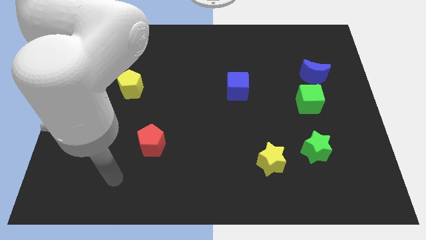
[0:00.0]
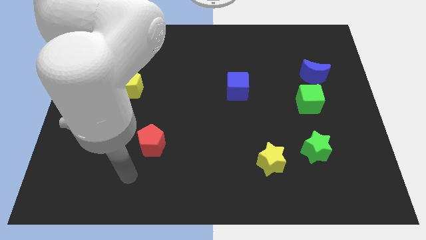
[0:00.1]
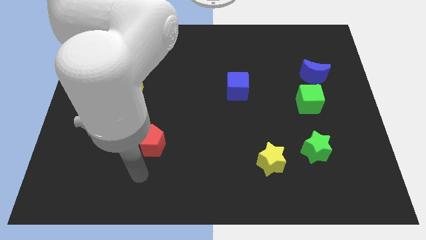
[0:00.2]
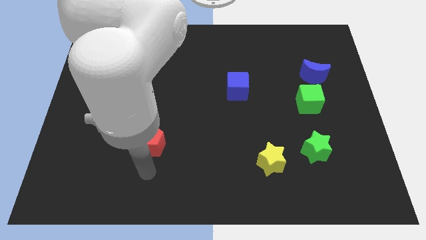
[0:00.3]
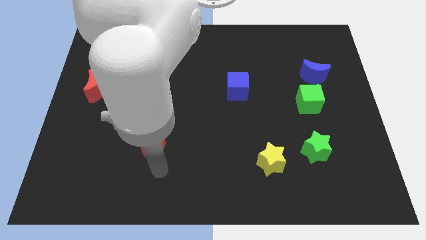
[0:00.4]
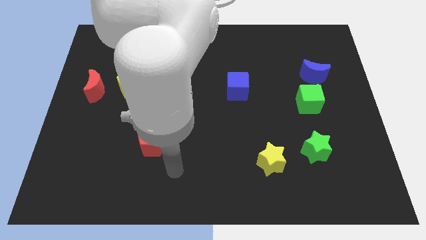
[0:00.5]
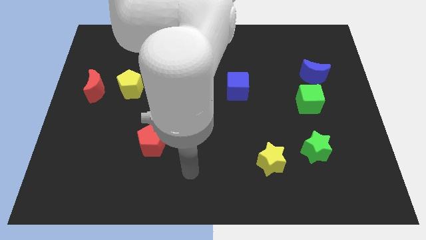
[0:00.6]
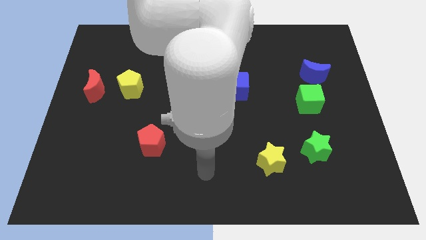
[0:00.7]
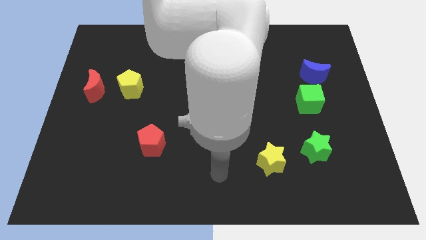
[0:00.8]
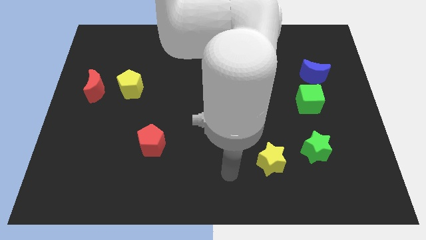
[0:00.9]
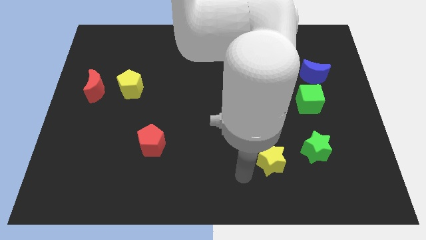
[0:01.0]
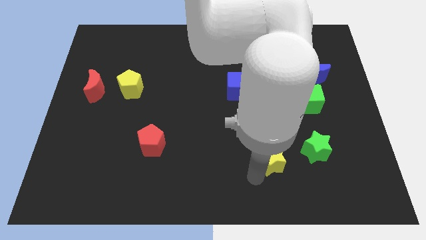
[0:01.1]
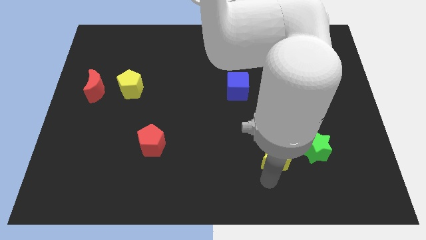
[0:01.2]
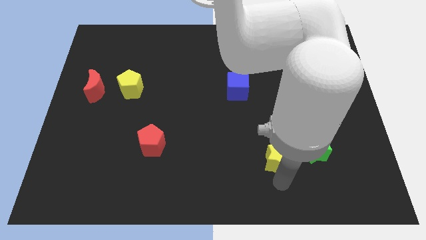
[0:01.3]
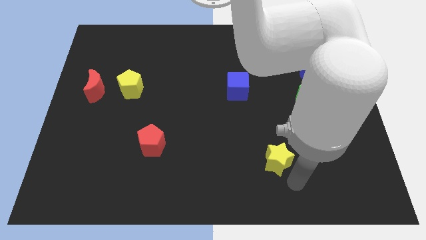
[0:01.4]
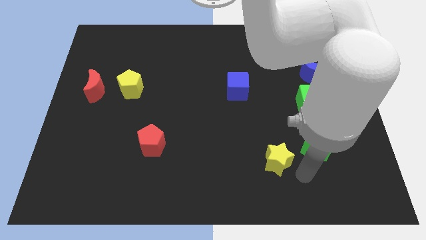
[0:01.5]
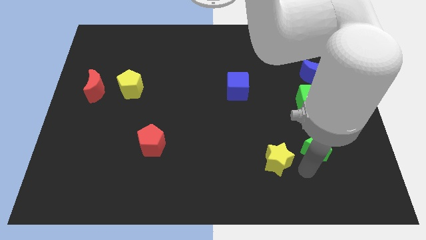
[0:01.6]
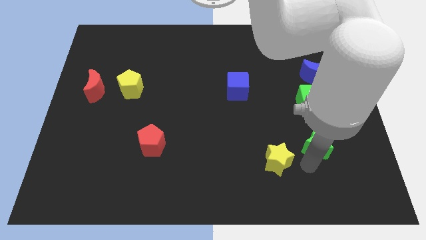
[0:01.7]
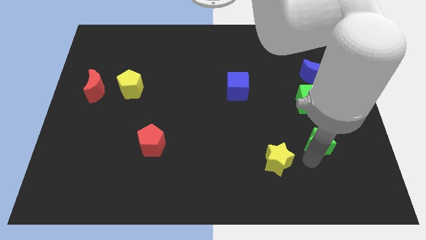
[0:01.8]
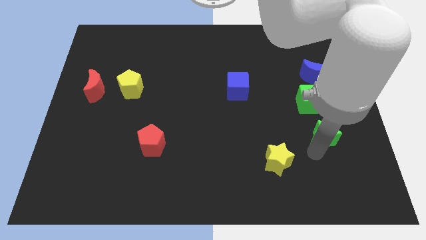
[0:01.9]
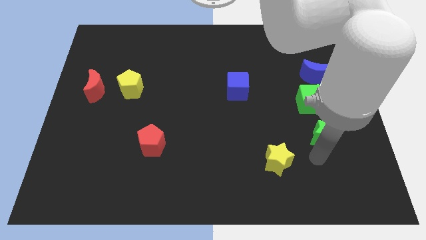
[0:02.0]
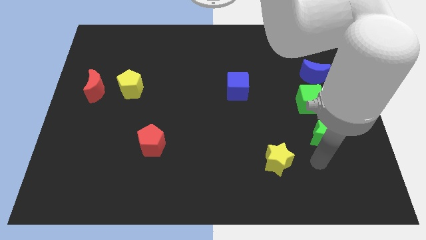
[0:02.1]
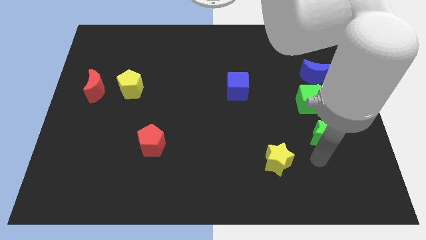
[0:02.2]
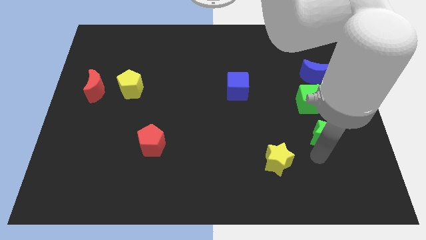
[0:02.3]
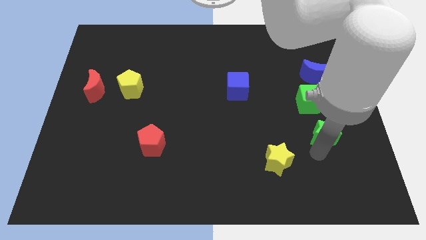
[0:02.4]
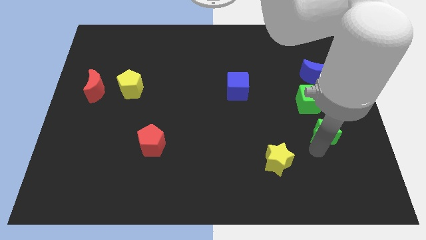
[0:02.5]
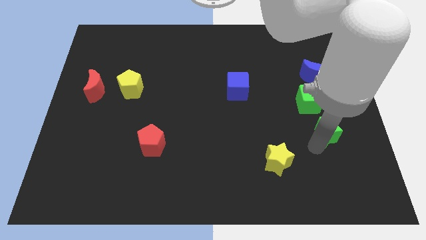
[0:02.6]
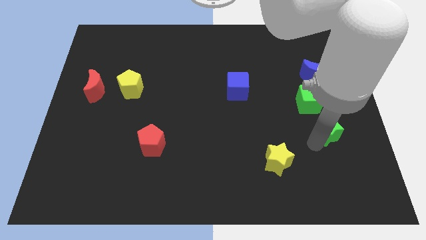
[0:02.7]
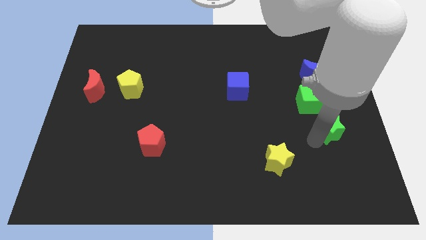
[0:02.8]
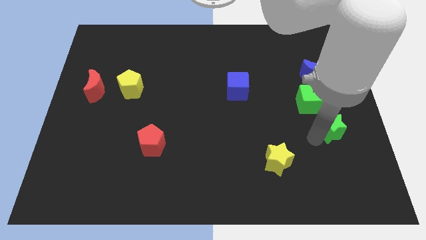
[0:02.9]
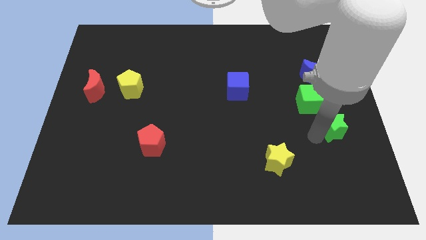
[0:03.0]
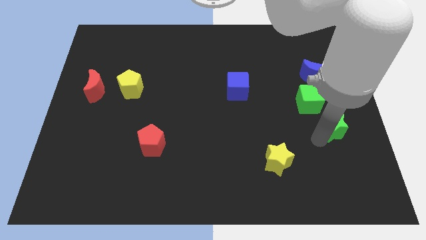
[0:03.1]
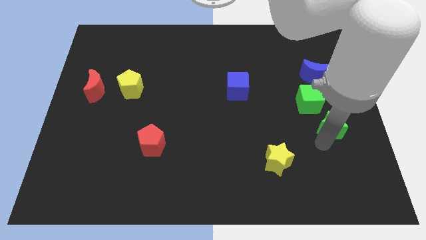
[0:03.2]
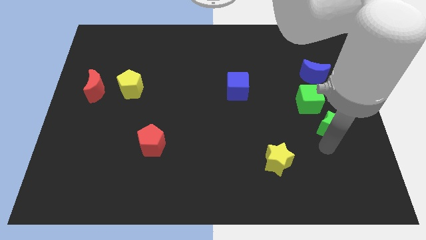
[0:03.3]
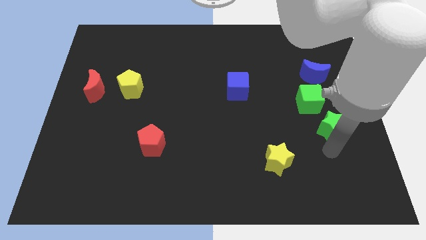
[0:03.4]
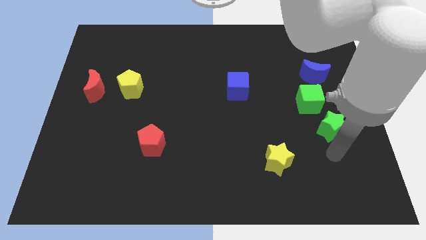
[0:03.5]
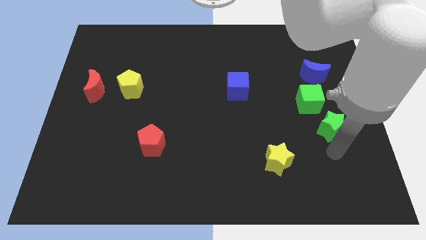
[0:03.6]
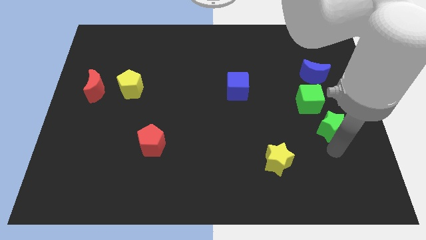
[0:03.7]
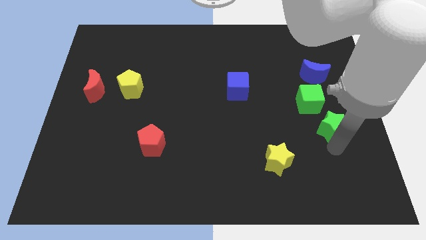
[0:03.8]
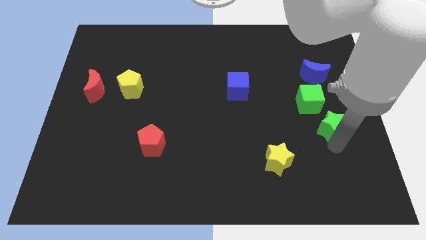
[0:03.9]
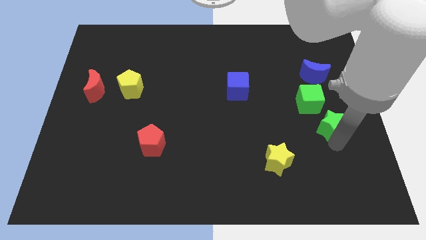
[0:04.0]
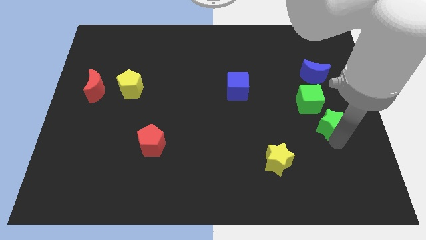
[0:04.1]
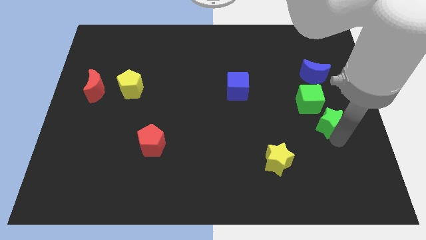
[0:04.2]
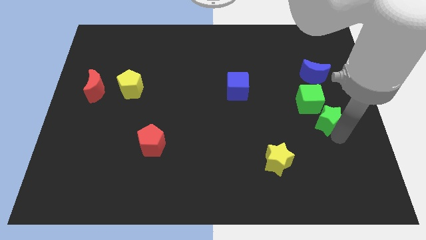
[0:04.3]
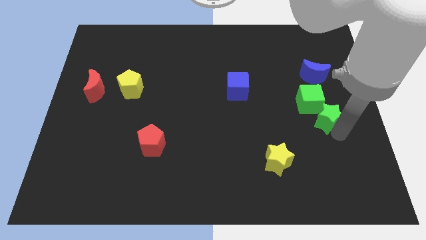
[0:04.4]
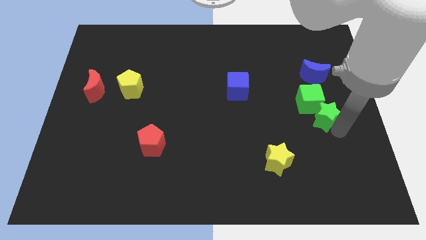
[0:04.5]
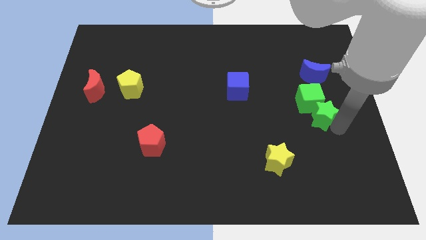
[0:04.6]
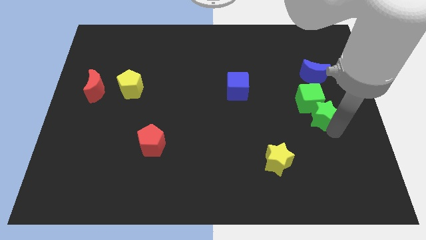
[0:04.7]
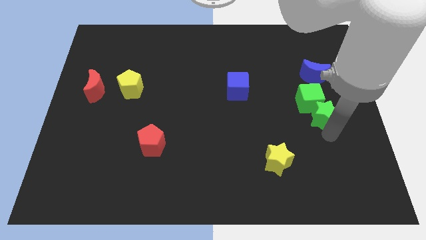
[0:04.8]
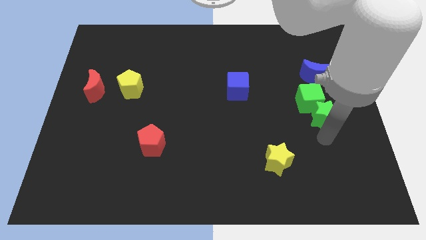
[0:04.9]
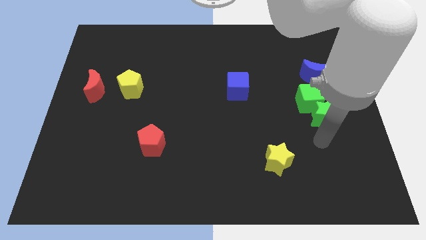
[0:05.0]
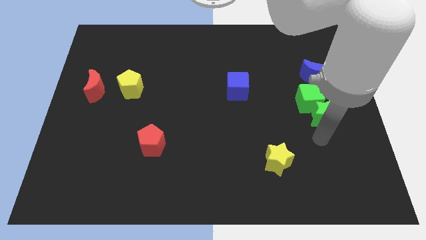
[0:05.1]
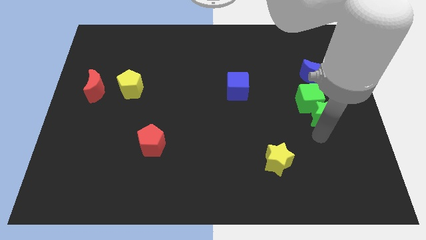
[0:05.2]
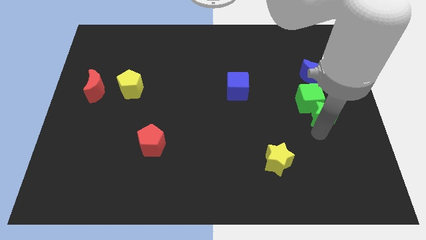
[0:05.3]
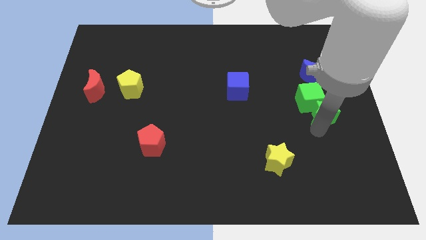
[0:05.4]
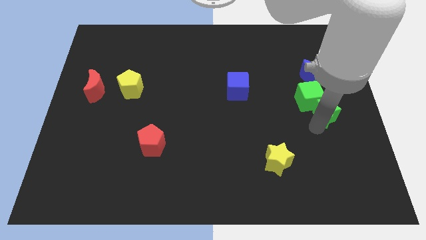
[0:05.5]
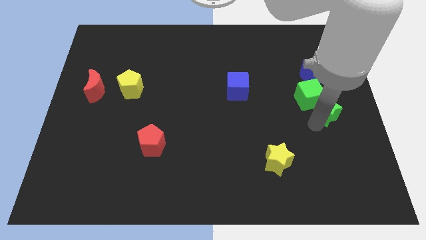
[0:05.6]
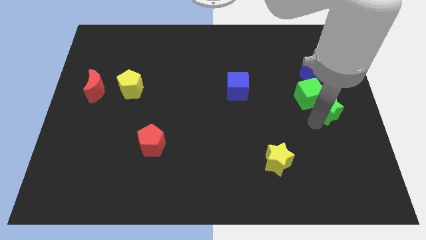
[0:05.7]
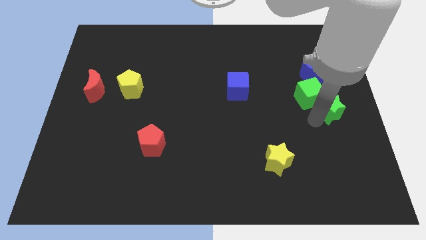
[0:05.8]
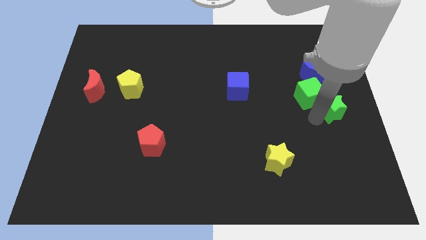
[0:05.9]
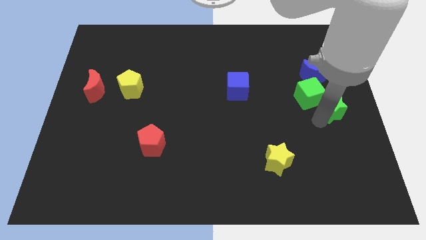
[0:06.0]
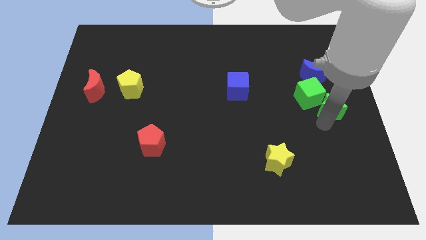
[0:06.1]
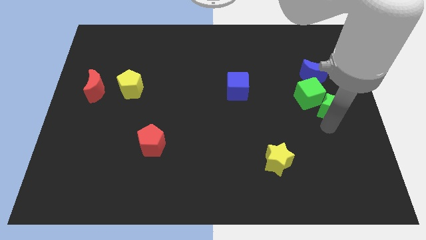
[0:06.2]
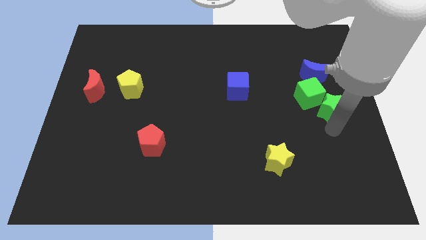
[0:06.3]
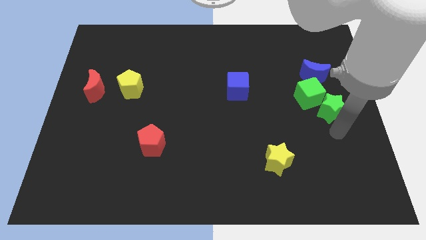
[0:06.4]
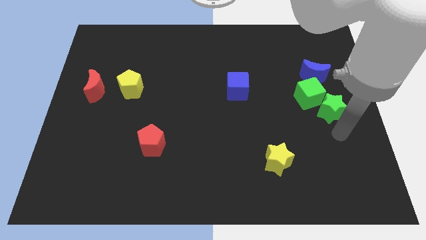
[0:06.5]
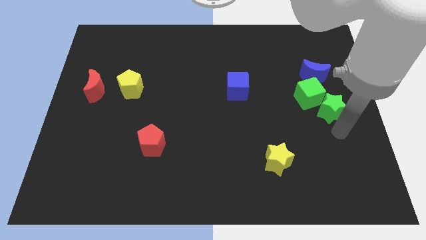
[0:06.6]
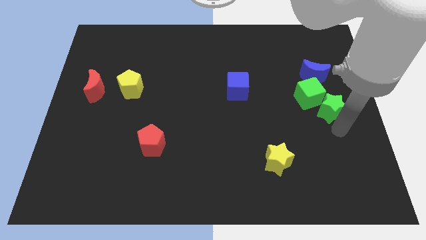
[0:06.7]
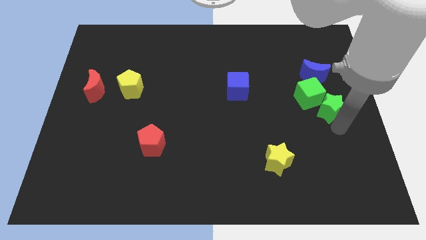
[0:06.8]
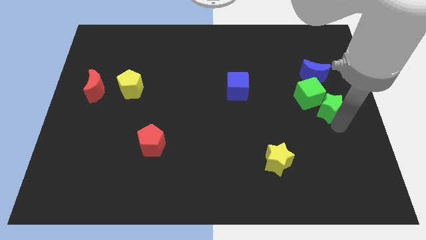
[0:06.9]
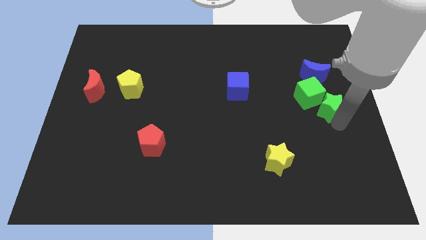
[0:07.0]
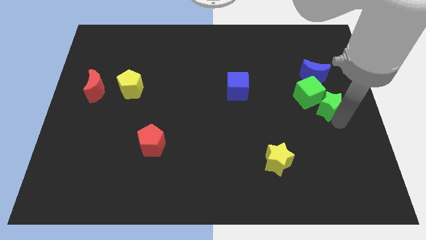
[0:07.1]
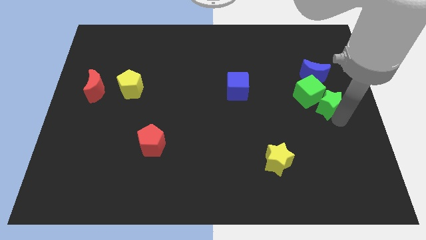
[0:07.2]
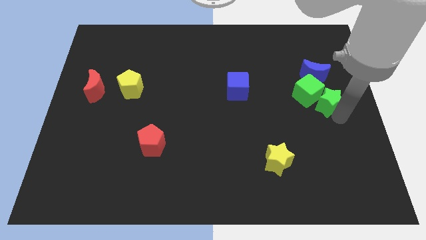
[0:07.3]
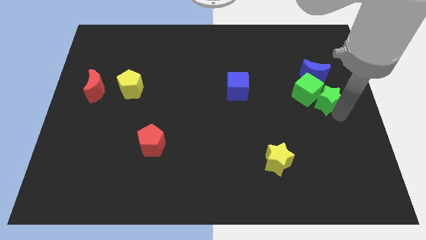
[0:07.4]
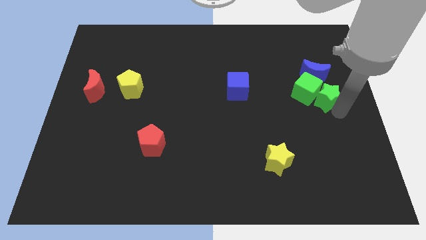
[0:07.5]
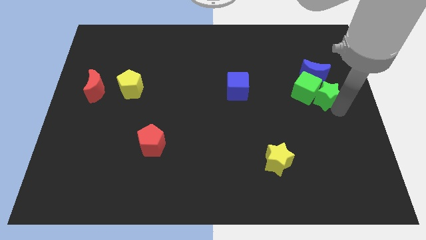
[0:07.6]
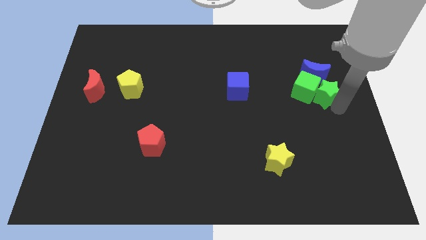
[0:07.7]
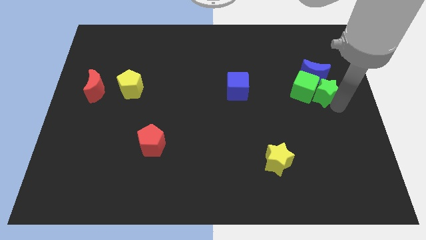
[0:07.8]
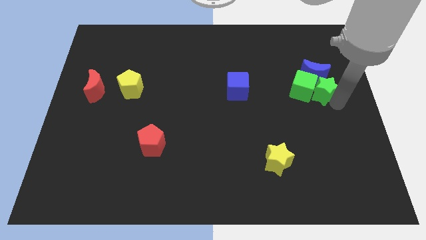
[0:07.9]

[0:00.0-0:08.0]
move the green star to the blue moon
